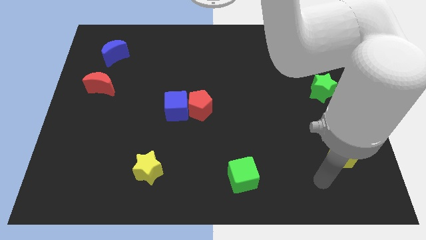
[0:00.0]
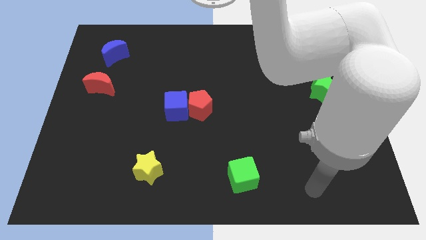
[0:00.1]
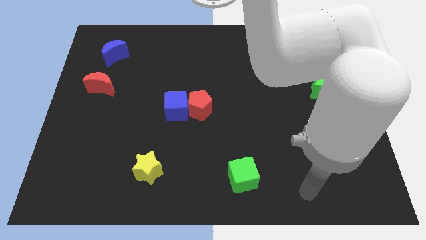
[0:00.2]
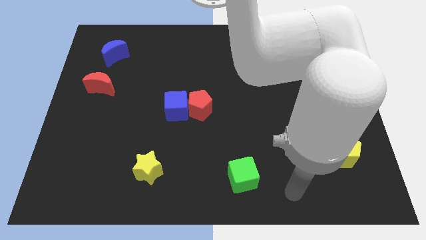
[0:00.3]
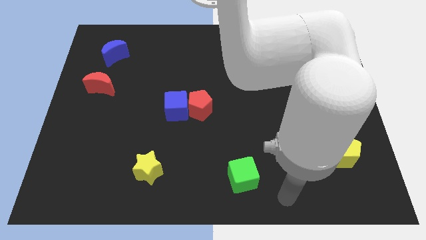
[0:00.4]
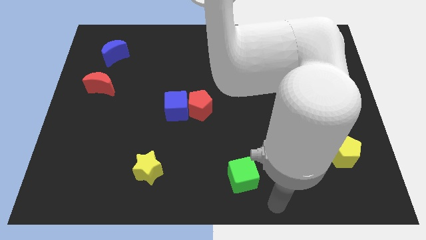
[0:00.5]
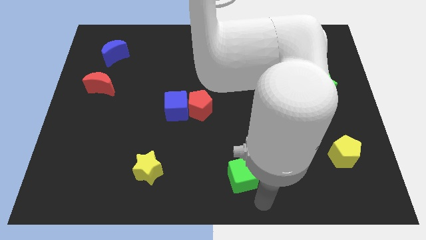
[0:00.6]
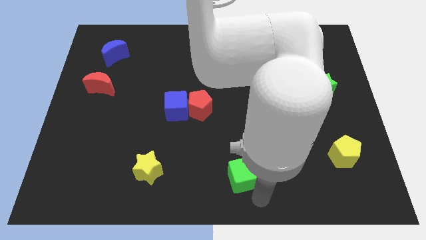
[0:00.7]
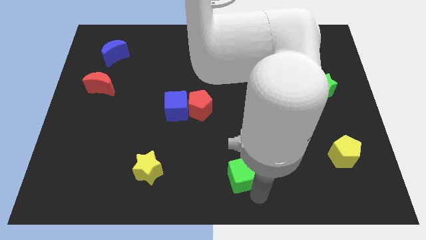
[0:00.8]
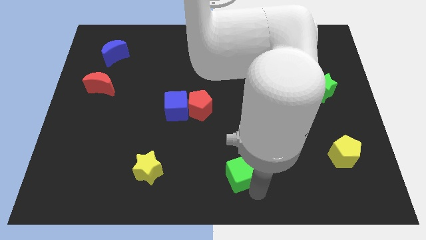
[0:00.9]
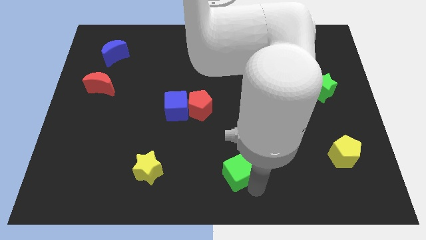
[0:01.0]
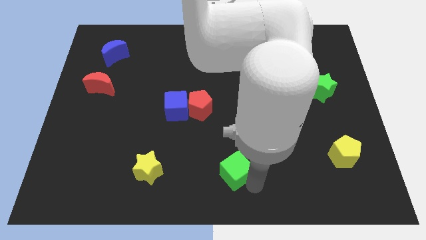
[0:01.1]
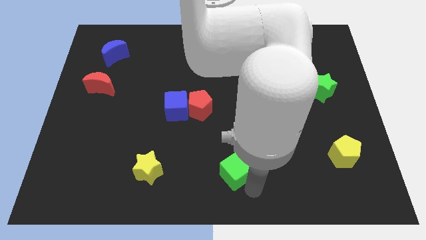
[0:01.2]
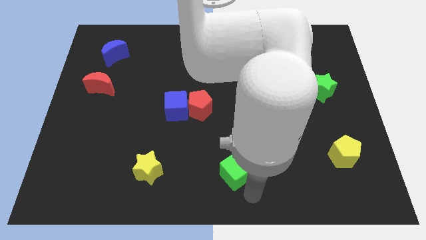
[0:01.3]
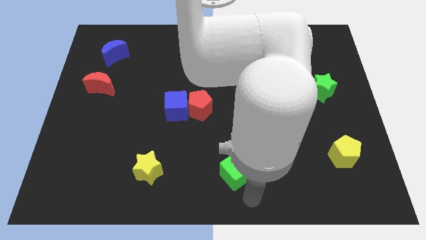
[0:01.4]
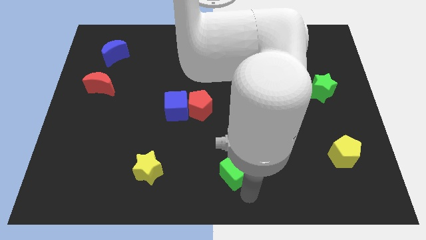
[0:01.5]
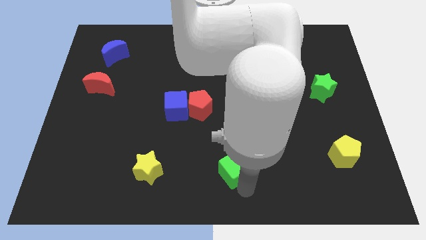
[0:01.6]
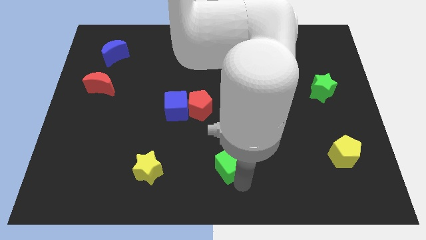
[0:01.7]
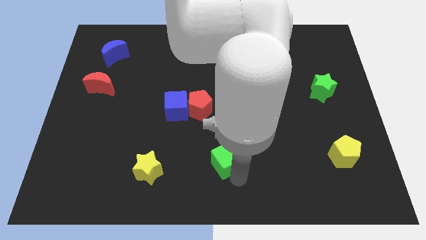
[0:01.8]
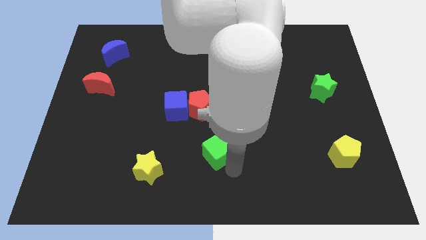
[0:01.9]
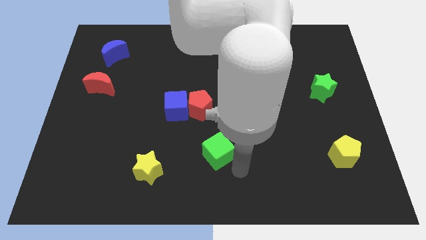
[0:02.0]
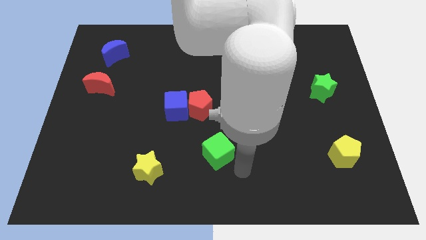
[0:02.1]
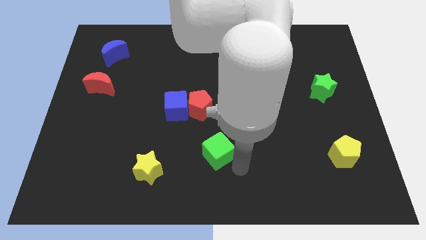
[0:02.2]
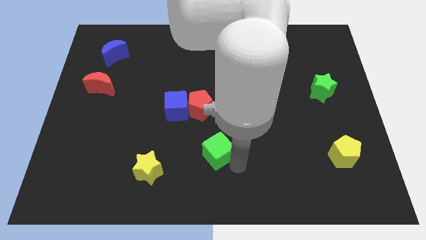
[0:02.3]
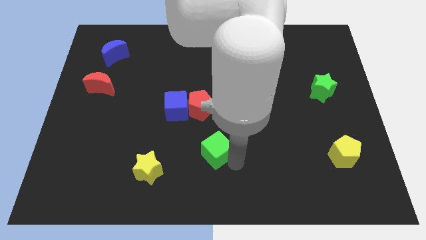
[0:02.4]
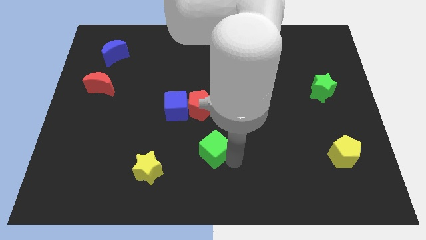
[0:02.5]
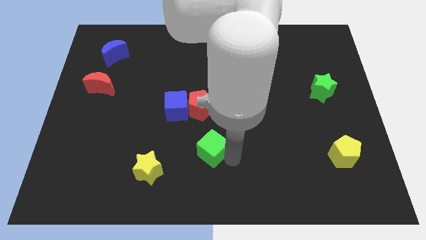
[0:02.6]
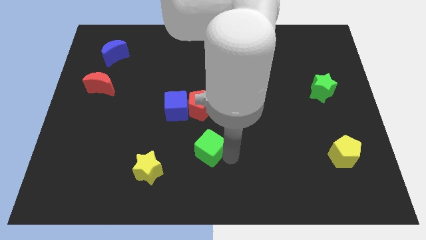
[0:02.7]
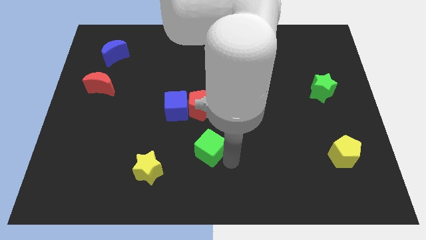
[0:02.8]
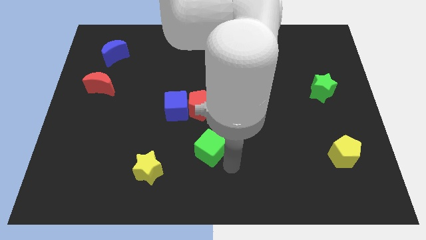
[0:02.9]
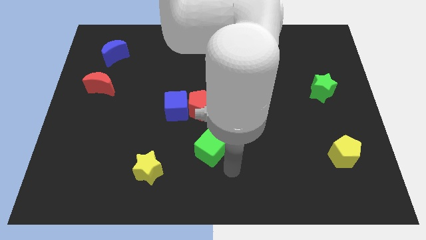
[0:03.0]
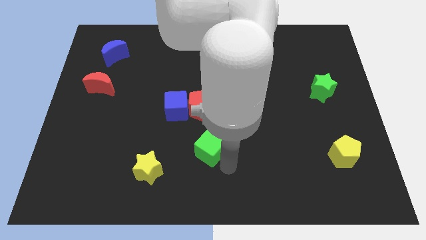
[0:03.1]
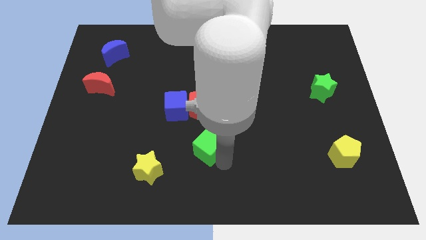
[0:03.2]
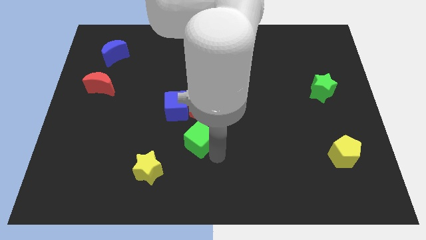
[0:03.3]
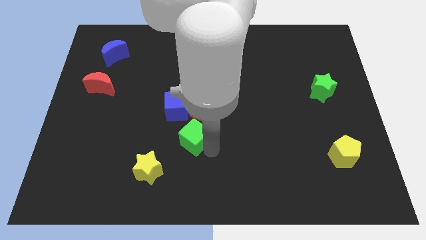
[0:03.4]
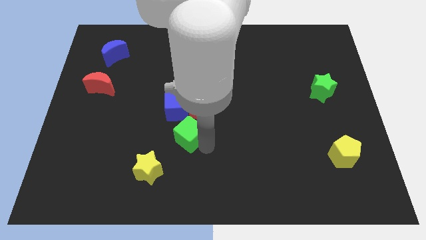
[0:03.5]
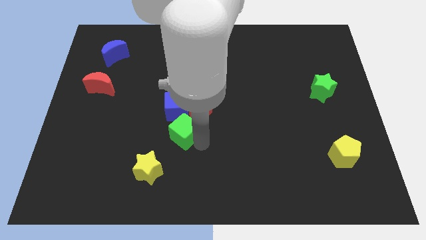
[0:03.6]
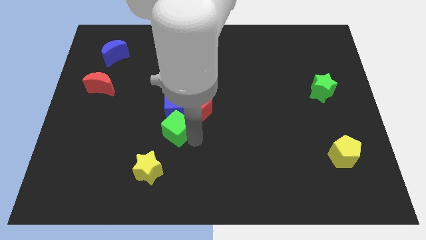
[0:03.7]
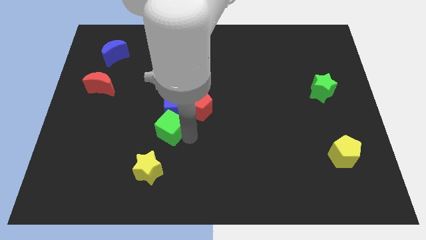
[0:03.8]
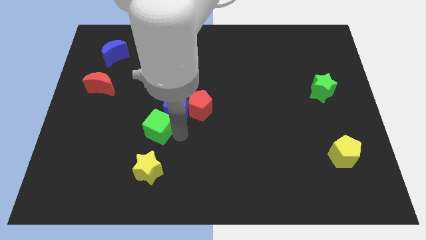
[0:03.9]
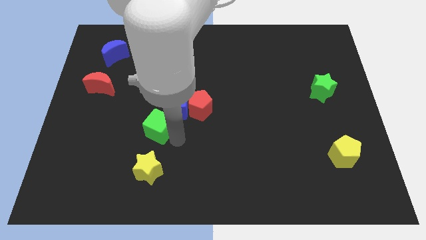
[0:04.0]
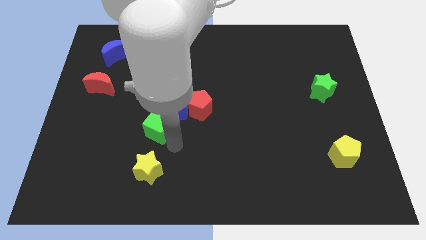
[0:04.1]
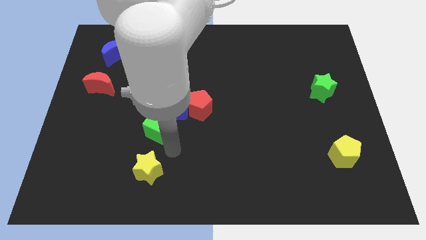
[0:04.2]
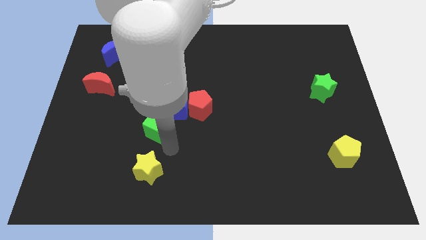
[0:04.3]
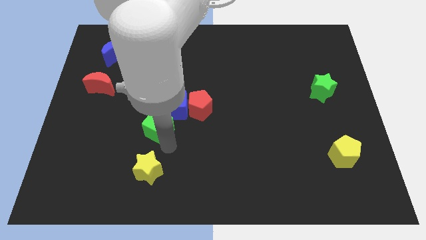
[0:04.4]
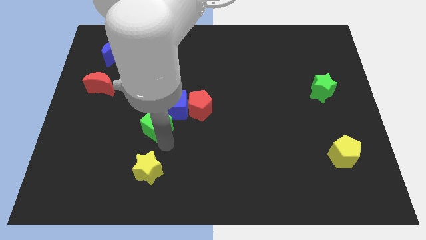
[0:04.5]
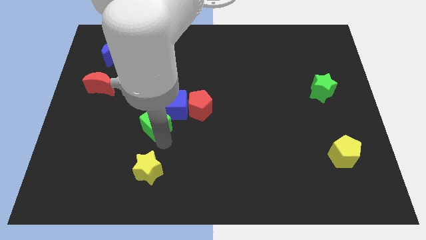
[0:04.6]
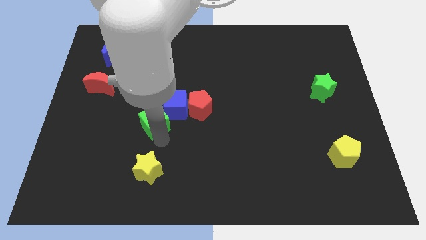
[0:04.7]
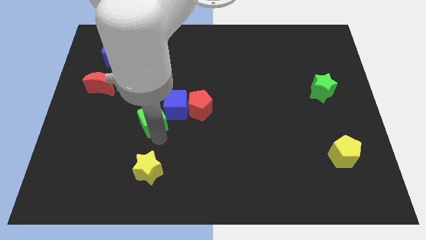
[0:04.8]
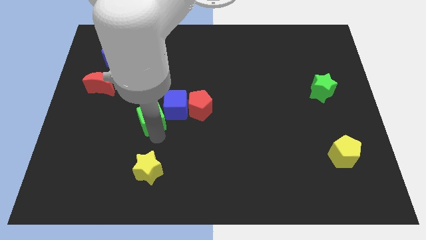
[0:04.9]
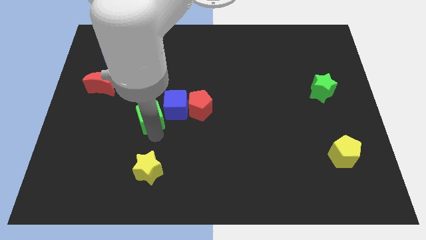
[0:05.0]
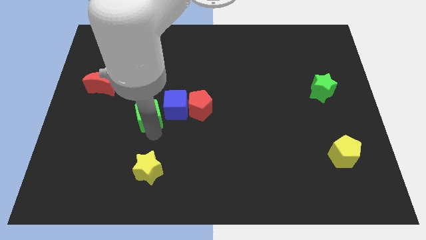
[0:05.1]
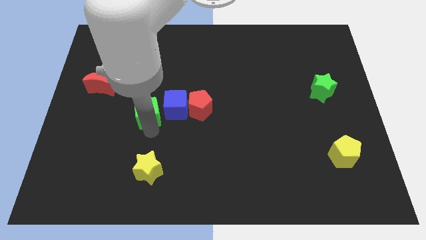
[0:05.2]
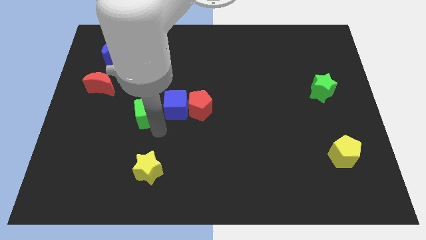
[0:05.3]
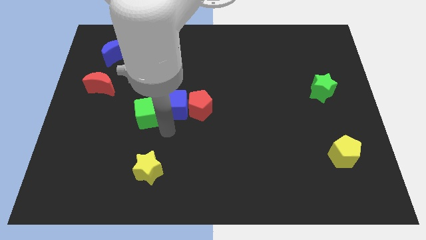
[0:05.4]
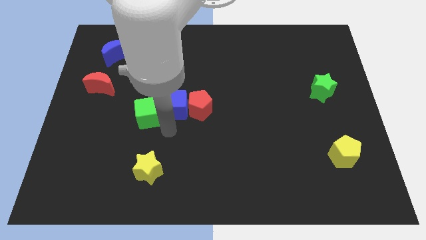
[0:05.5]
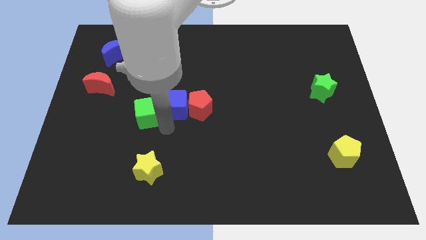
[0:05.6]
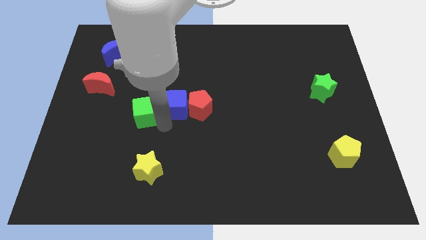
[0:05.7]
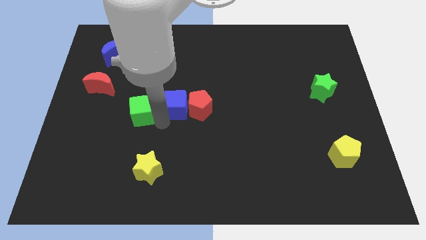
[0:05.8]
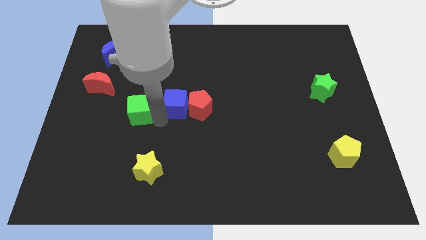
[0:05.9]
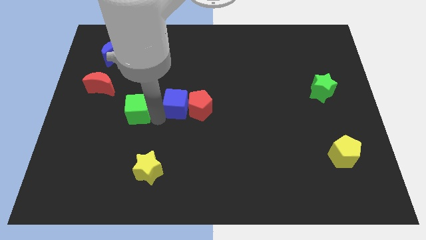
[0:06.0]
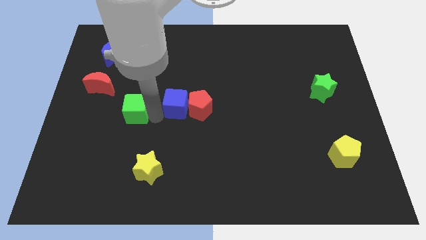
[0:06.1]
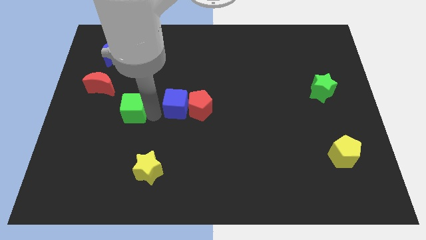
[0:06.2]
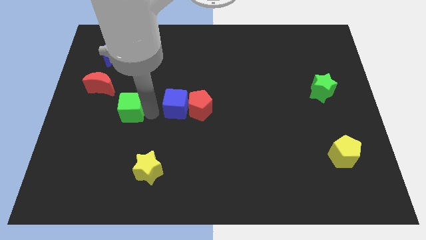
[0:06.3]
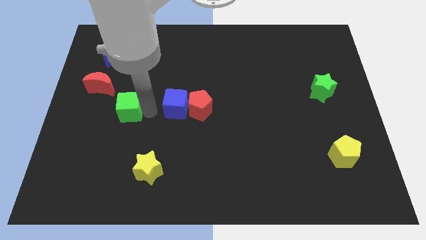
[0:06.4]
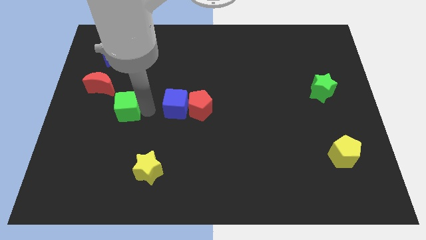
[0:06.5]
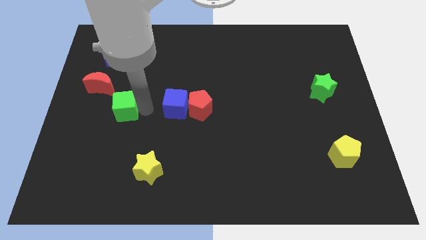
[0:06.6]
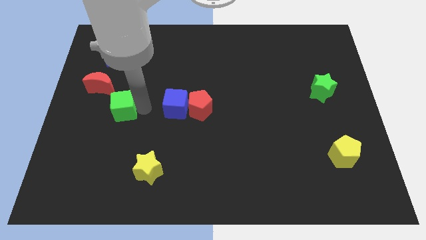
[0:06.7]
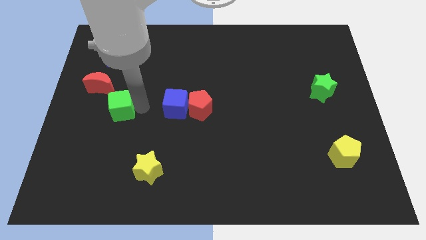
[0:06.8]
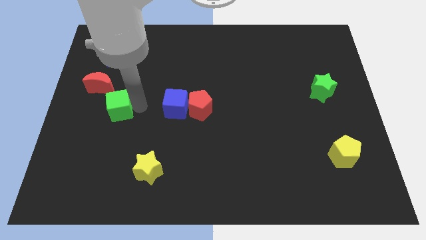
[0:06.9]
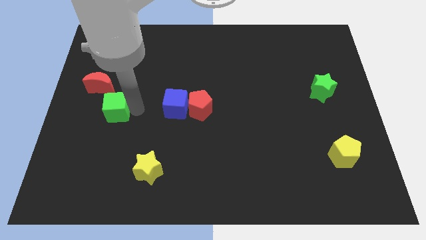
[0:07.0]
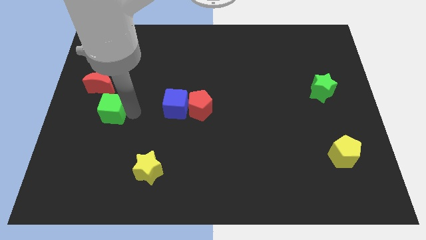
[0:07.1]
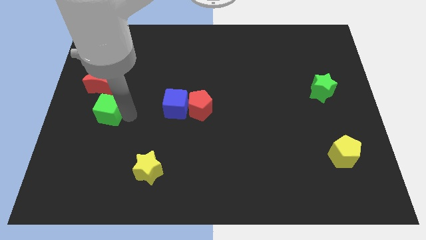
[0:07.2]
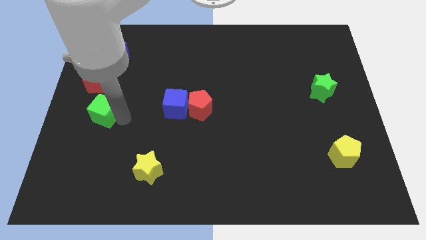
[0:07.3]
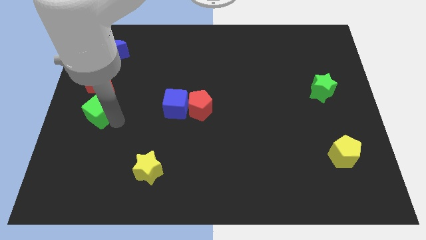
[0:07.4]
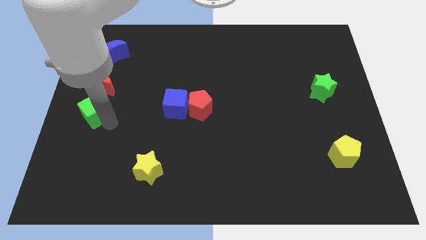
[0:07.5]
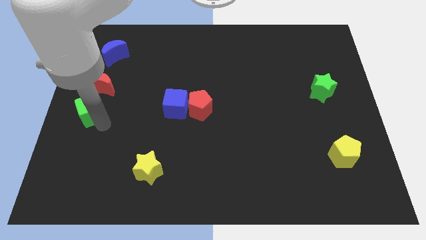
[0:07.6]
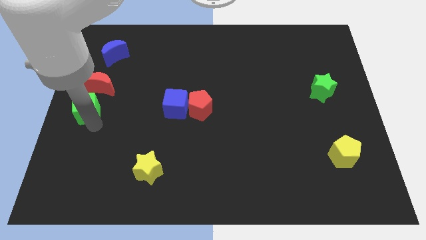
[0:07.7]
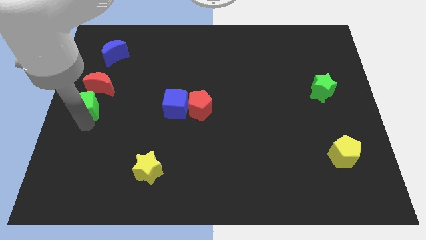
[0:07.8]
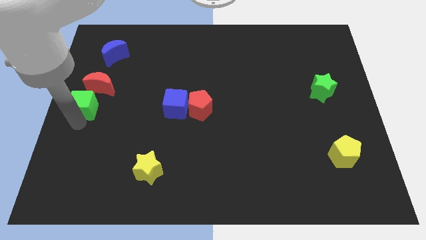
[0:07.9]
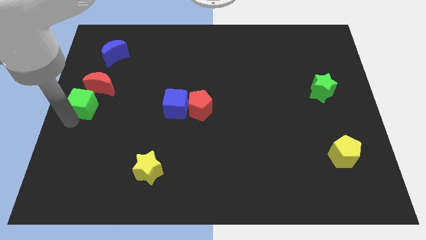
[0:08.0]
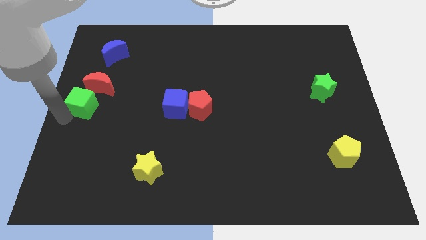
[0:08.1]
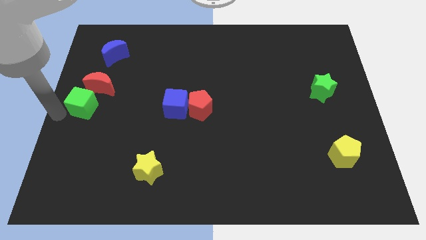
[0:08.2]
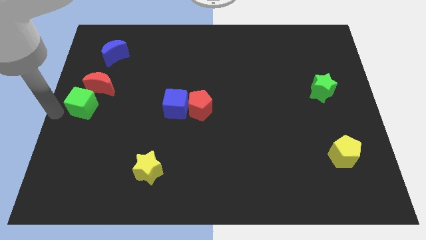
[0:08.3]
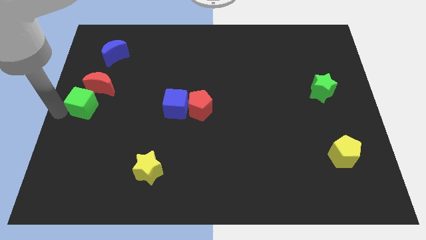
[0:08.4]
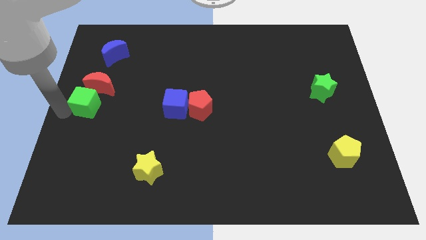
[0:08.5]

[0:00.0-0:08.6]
move the green cube to the red moon
